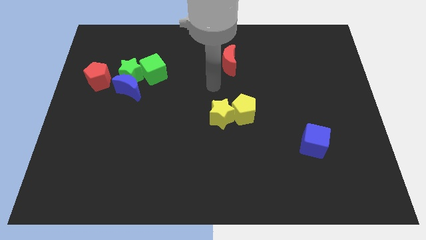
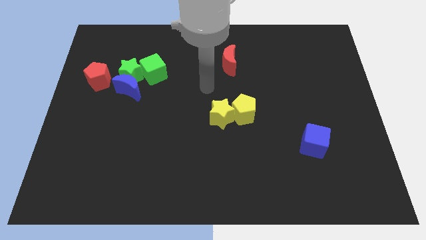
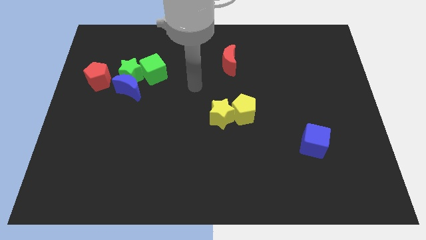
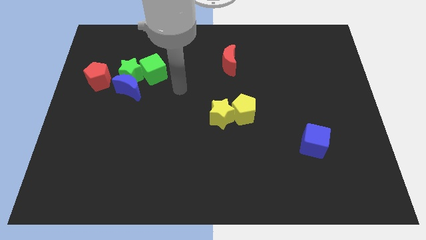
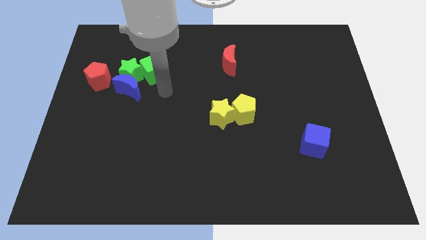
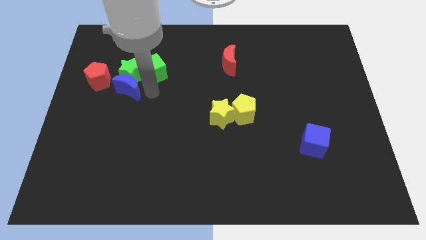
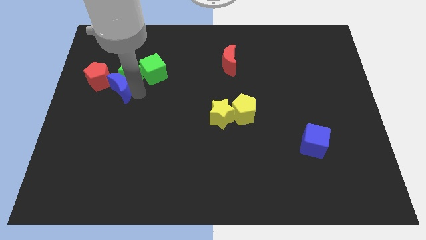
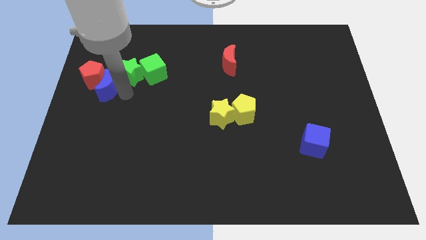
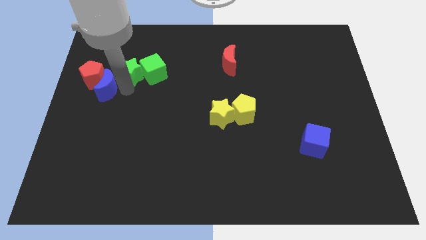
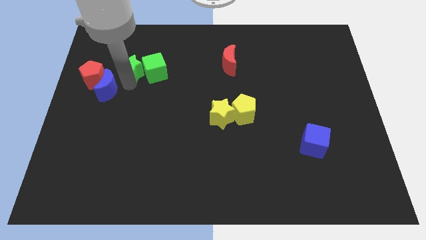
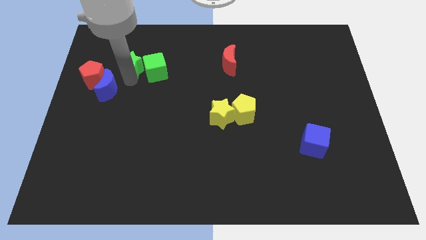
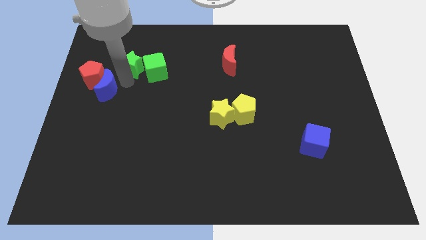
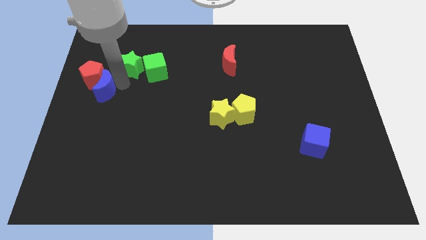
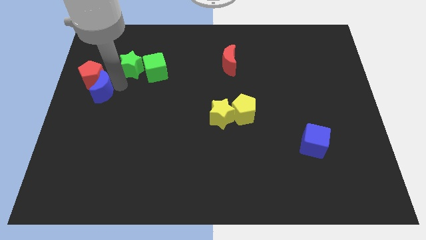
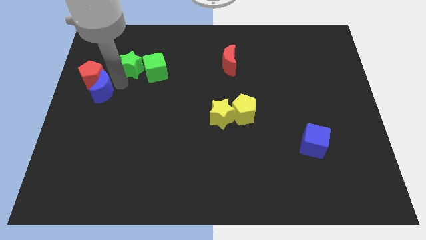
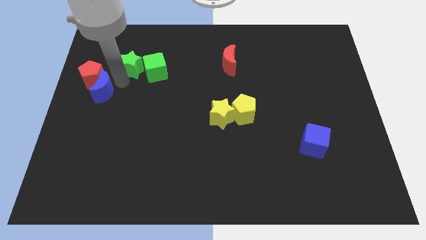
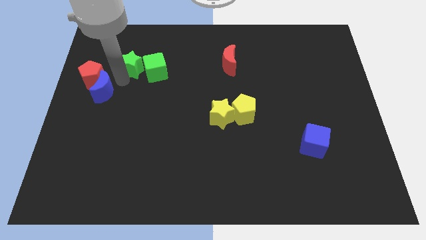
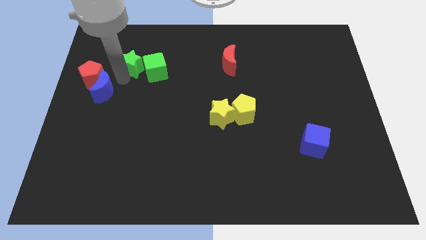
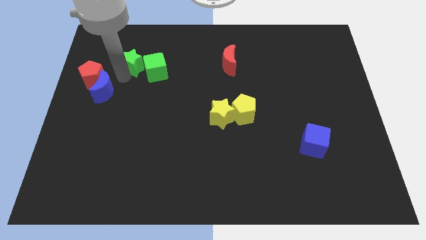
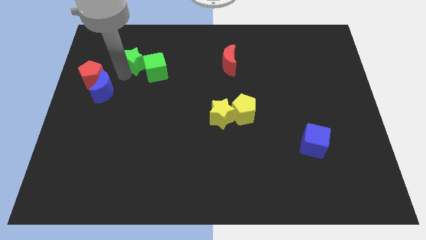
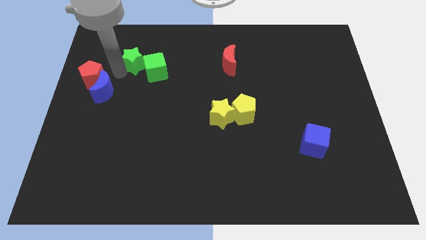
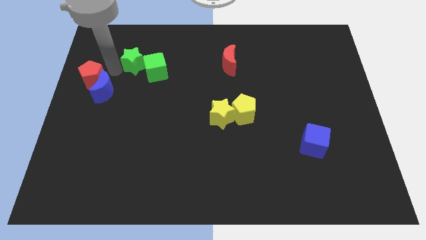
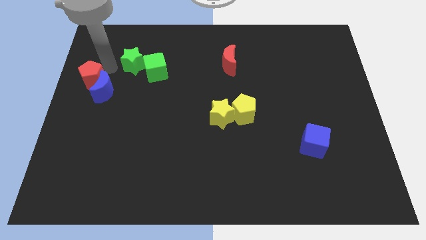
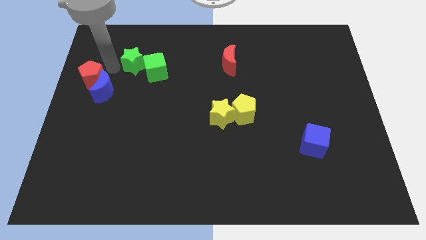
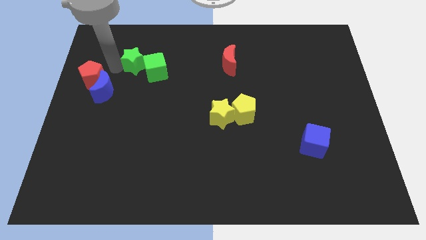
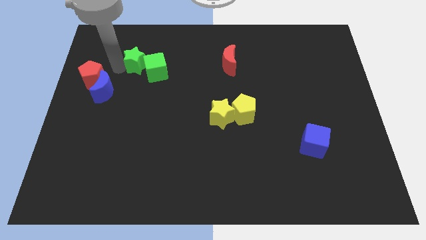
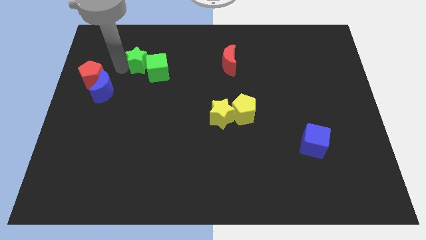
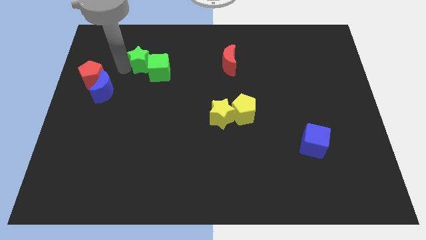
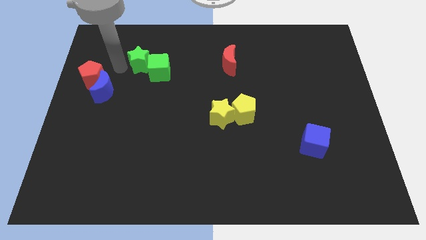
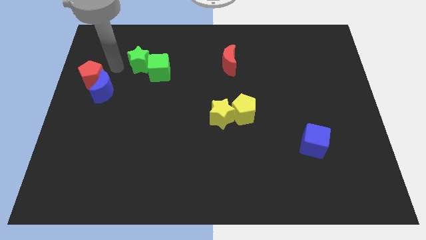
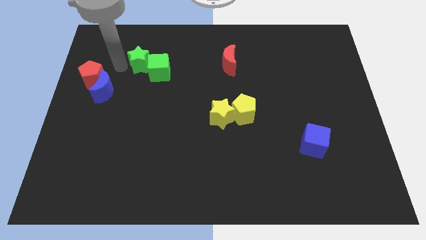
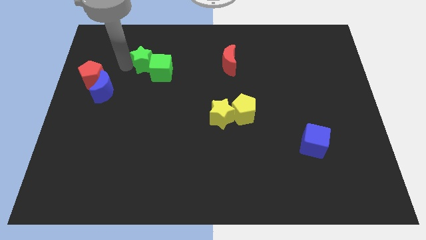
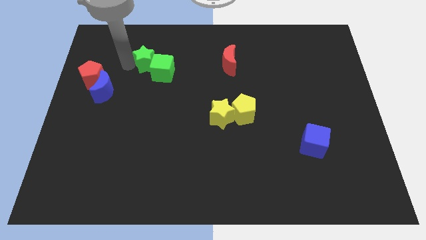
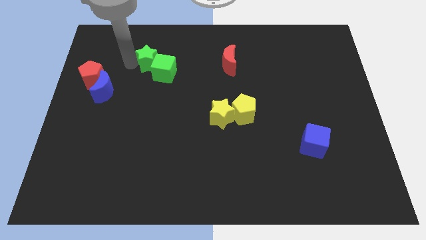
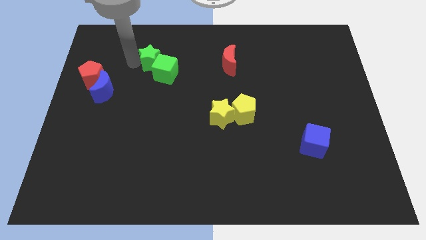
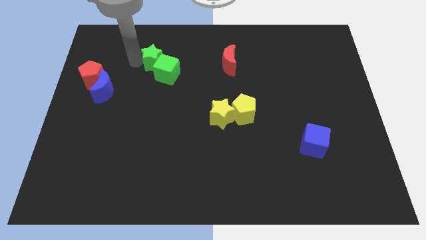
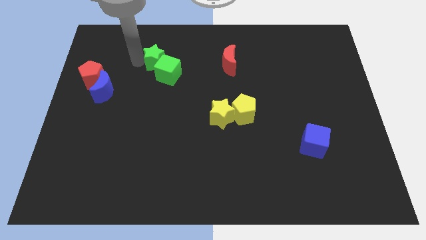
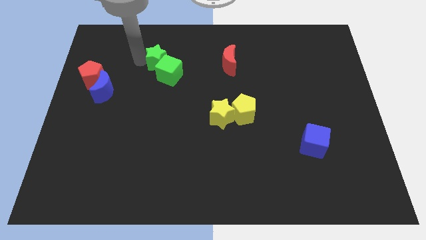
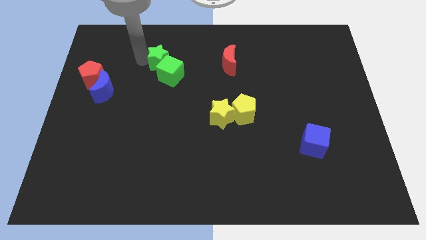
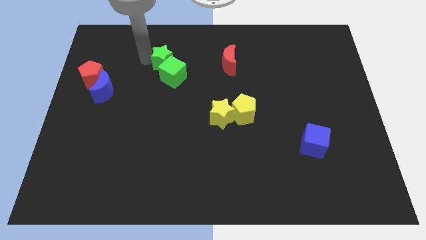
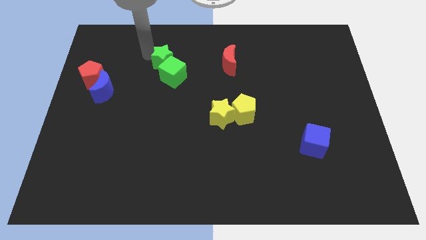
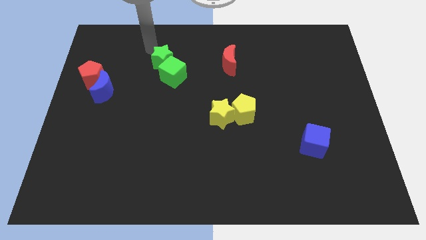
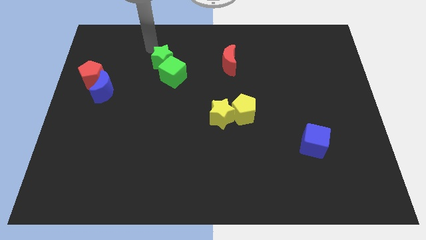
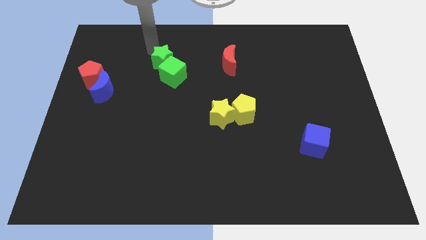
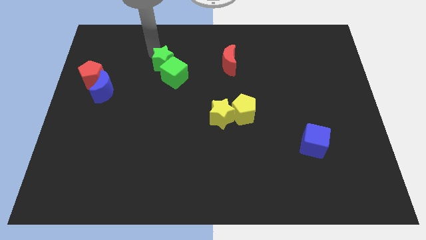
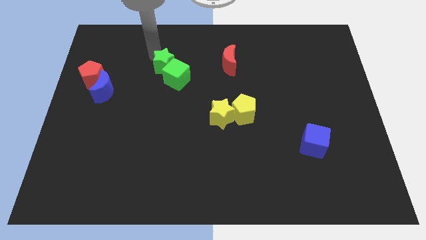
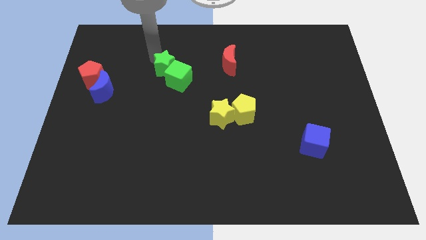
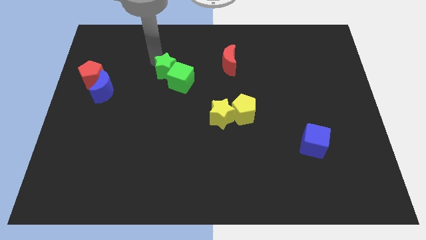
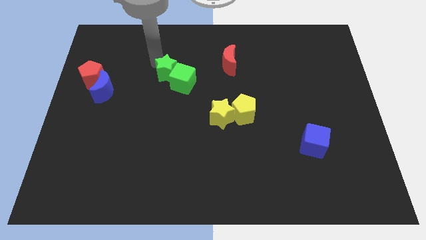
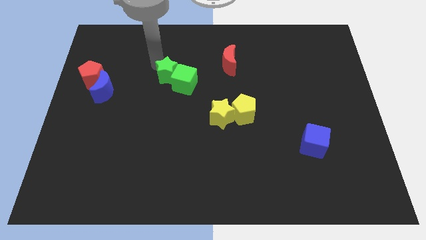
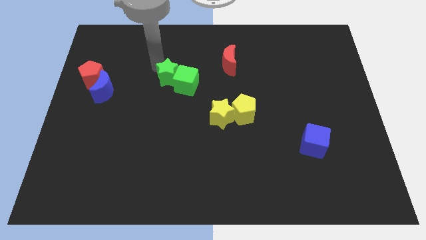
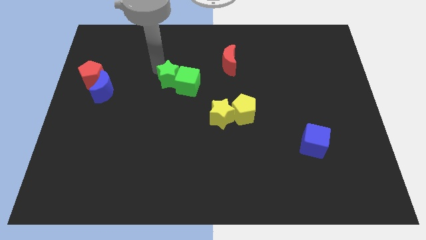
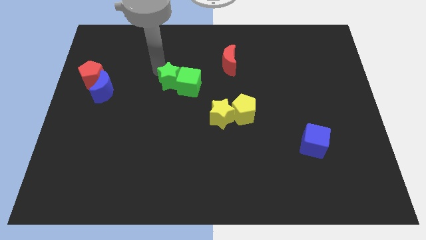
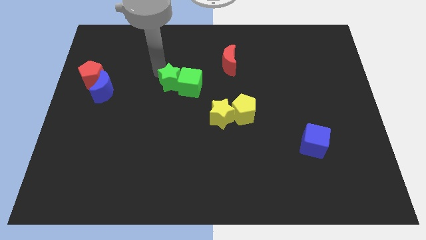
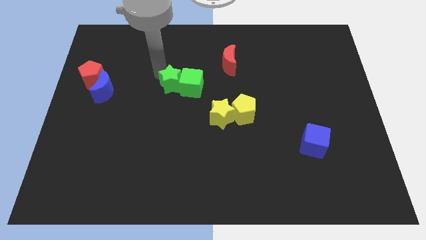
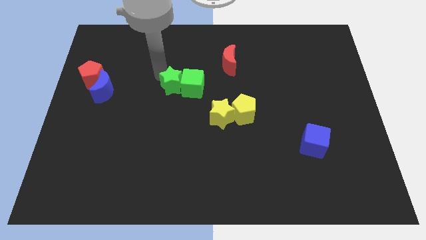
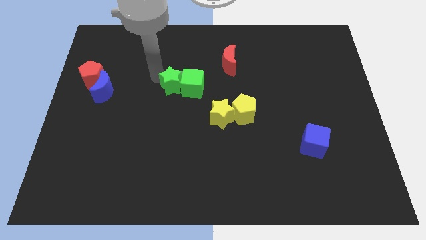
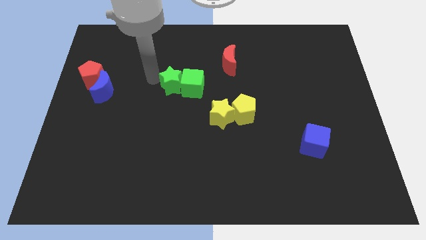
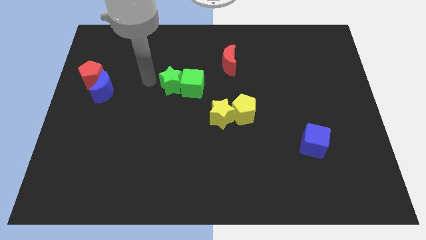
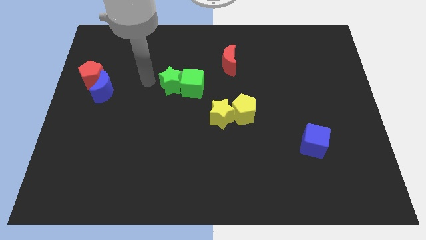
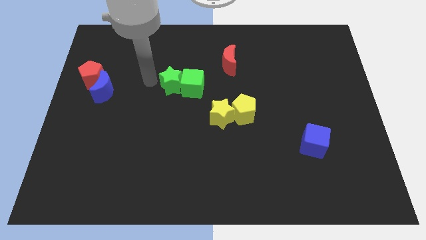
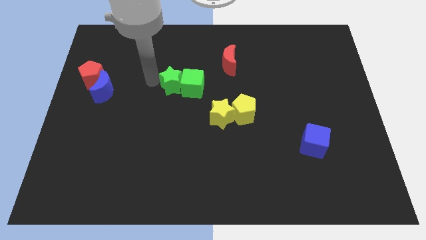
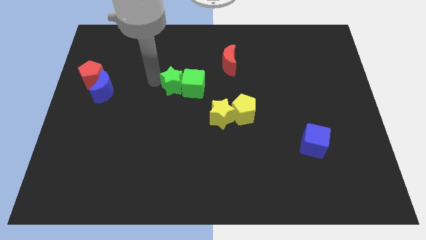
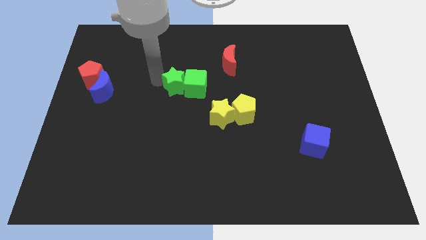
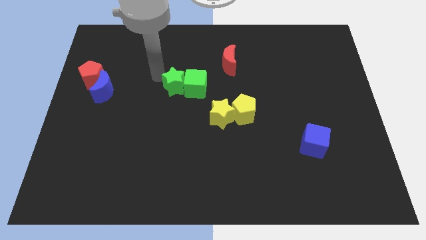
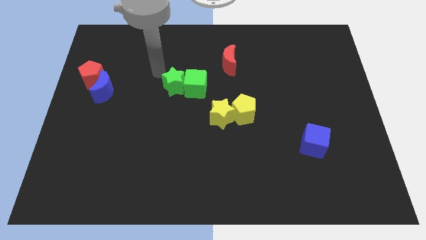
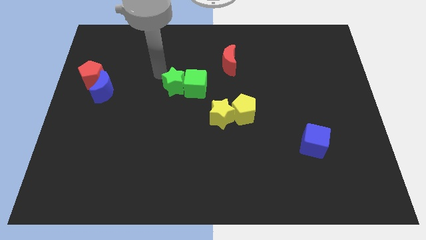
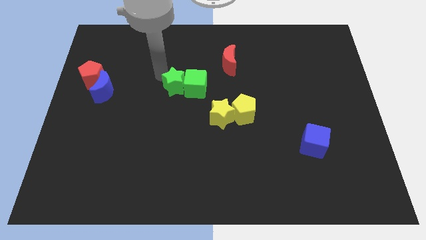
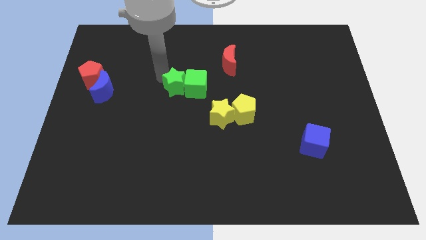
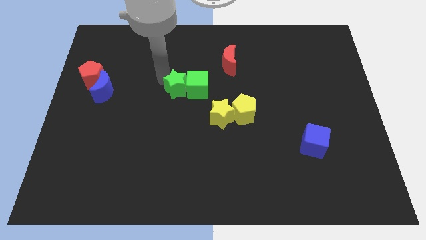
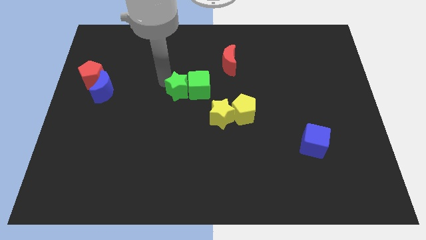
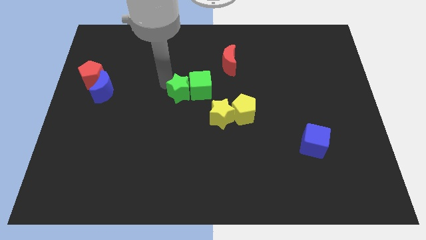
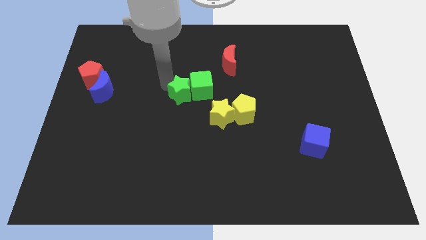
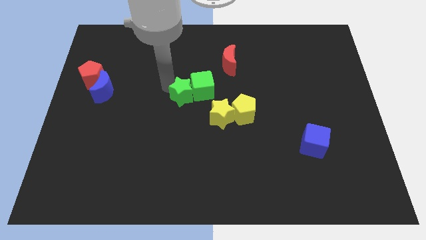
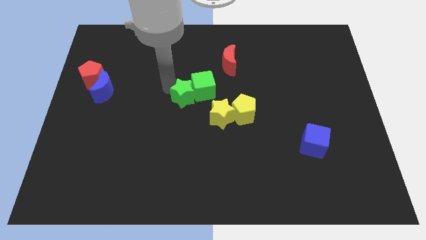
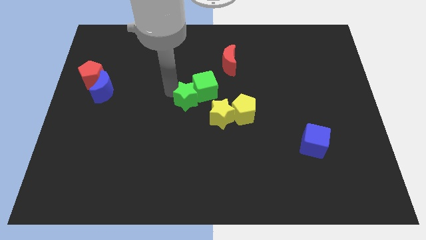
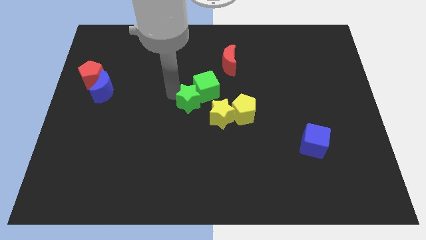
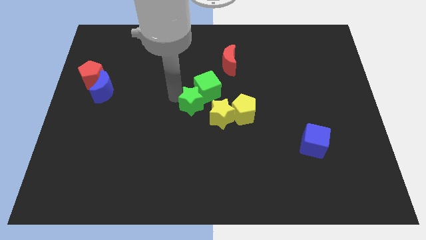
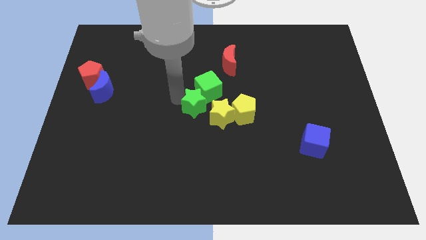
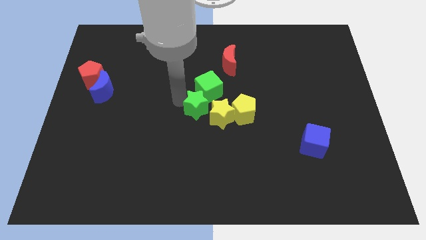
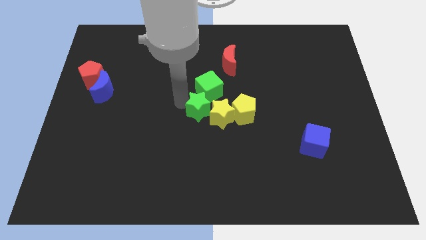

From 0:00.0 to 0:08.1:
put the green star towards the yellow star
